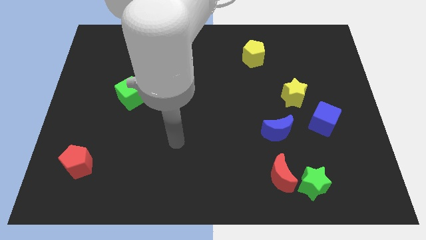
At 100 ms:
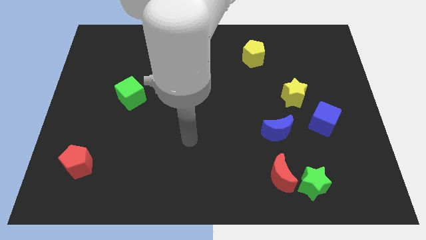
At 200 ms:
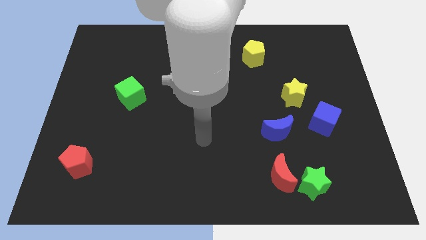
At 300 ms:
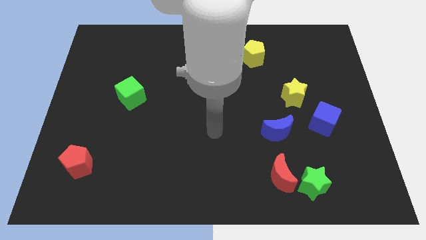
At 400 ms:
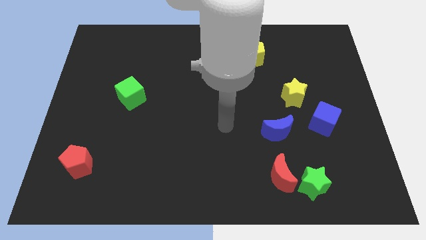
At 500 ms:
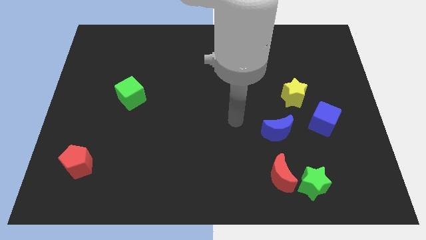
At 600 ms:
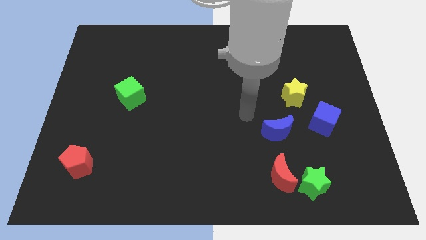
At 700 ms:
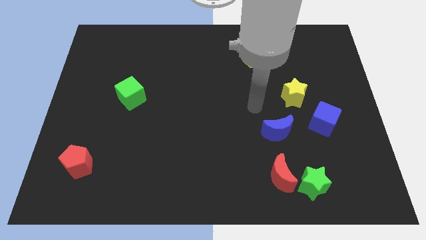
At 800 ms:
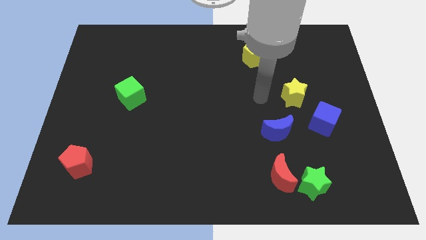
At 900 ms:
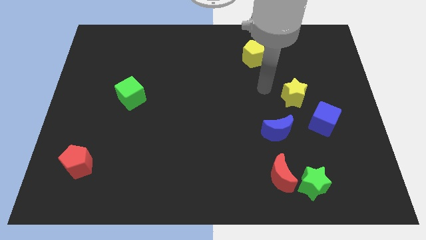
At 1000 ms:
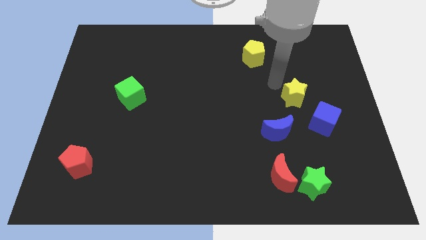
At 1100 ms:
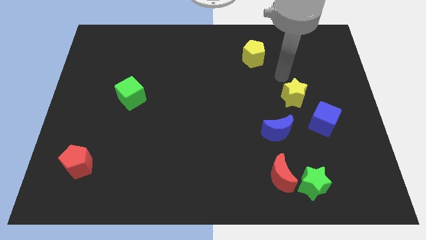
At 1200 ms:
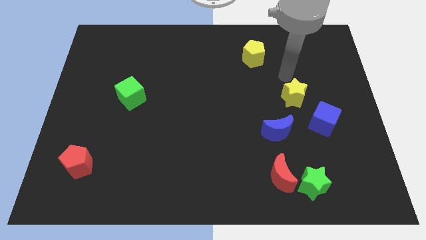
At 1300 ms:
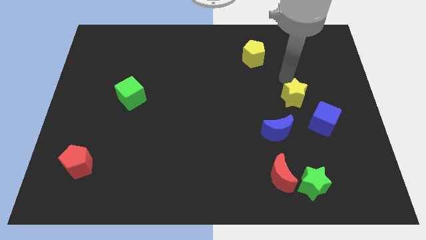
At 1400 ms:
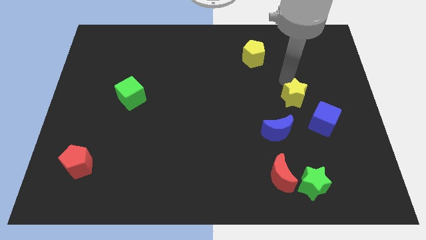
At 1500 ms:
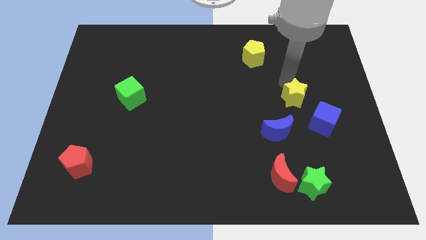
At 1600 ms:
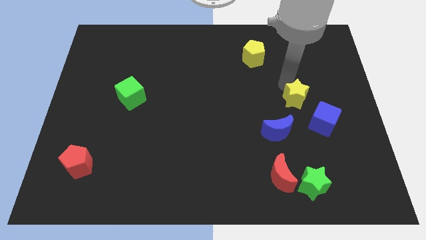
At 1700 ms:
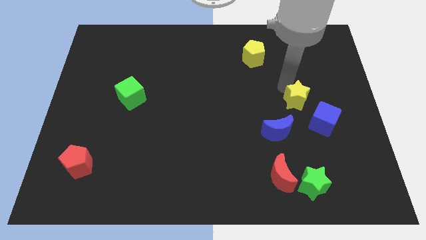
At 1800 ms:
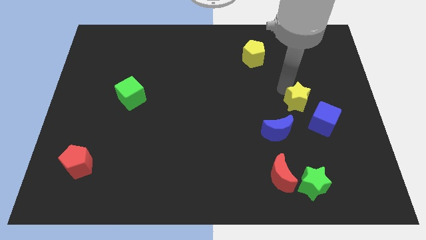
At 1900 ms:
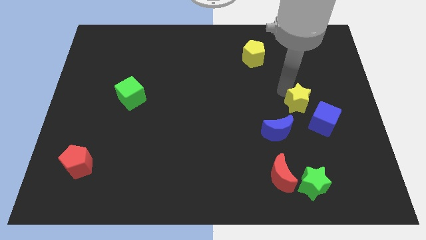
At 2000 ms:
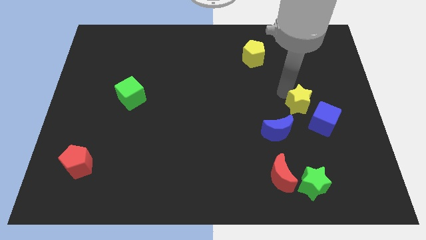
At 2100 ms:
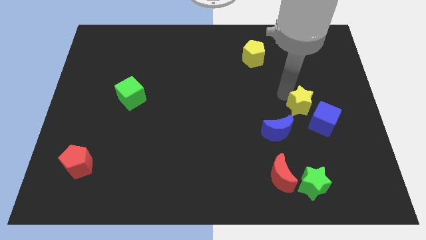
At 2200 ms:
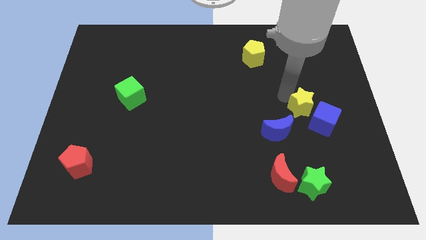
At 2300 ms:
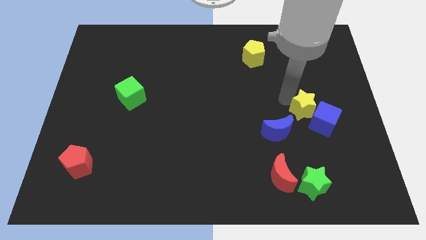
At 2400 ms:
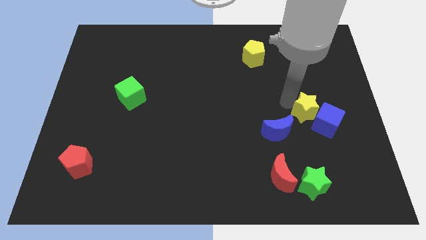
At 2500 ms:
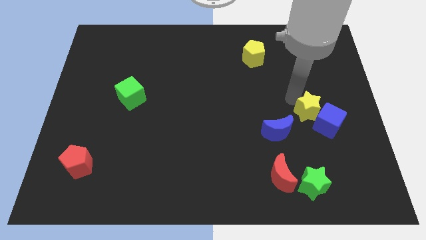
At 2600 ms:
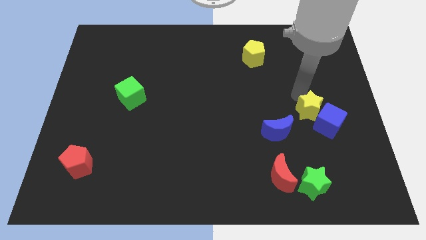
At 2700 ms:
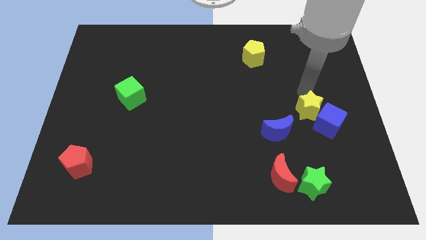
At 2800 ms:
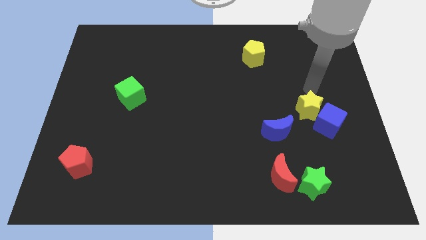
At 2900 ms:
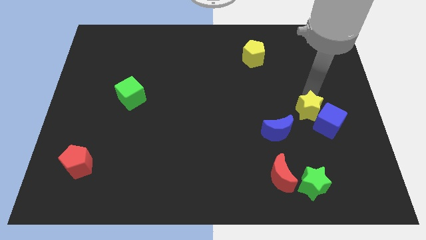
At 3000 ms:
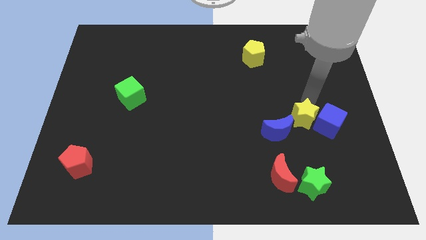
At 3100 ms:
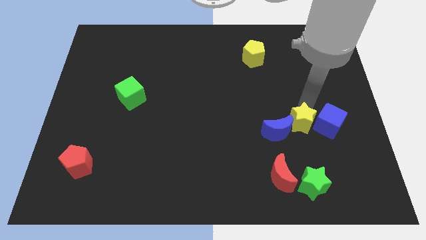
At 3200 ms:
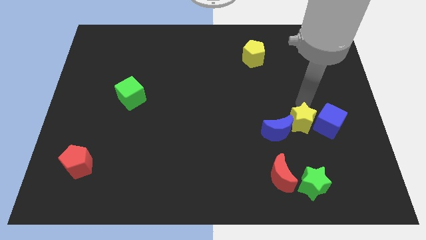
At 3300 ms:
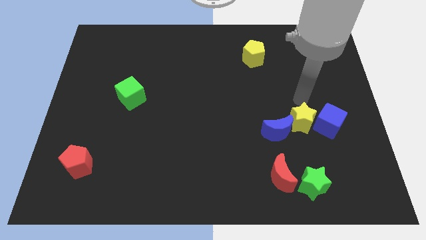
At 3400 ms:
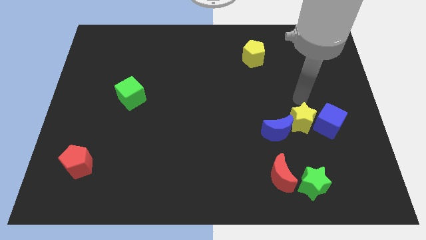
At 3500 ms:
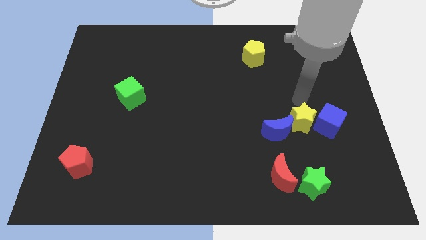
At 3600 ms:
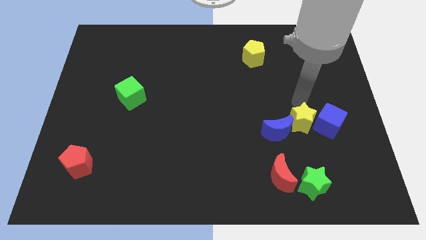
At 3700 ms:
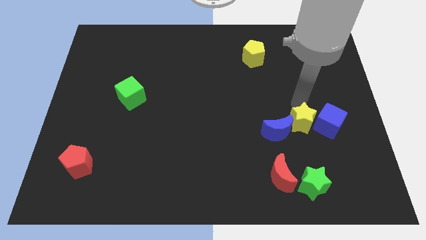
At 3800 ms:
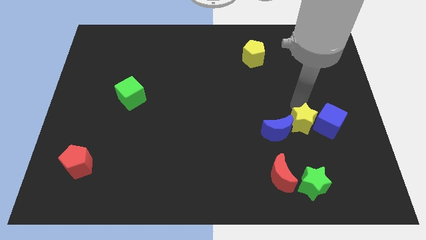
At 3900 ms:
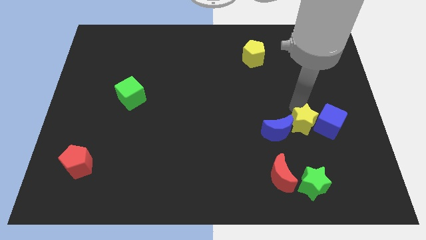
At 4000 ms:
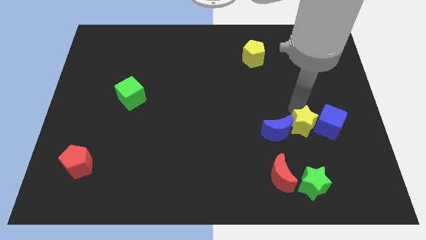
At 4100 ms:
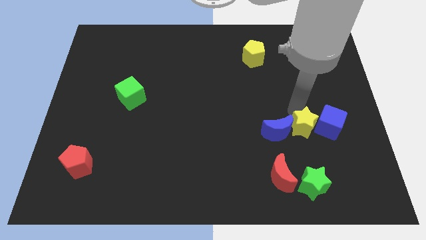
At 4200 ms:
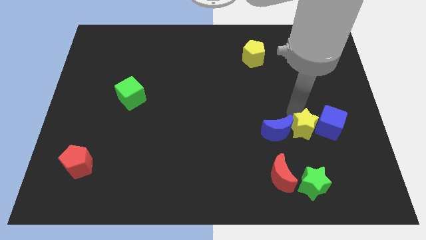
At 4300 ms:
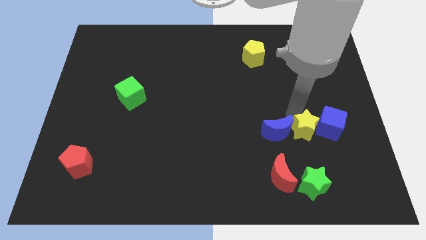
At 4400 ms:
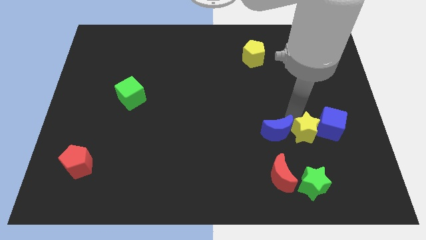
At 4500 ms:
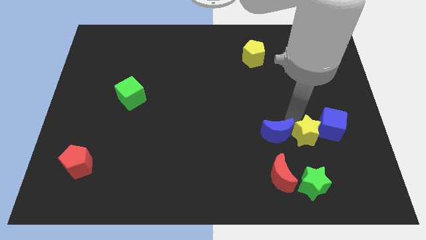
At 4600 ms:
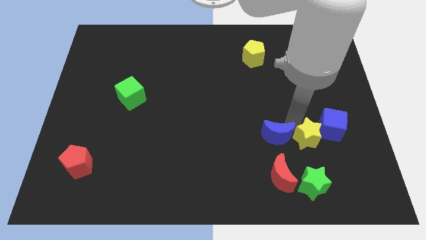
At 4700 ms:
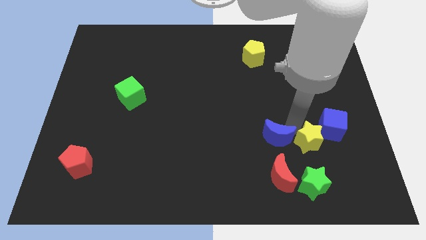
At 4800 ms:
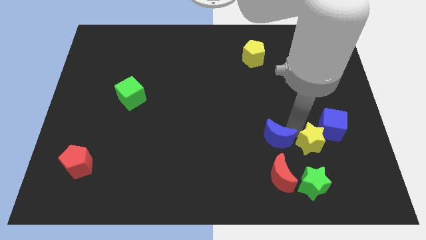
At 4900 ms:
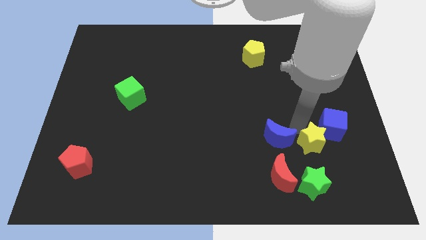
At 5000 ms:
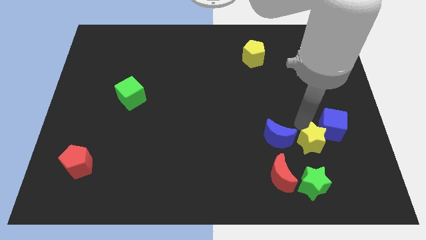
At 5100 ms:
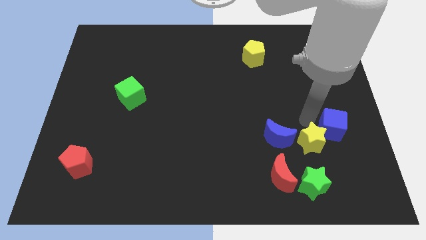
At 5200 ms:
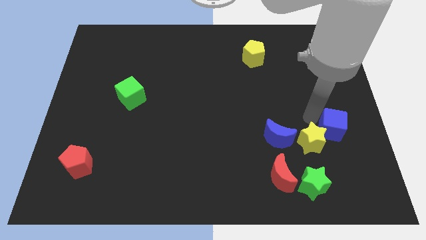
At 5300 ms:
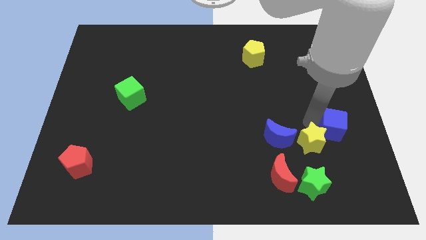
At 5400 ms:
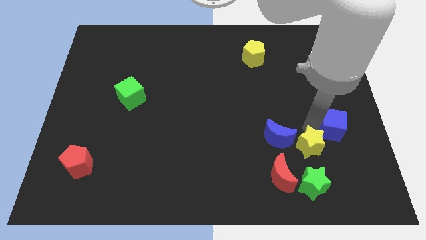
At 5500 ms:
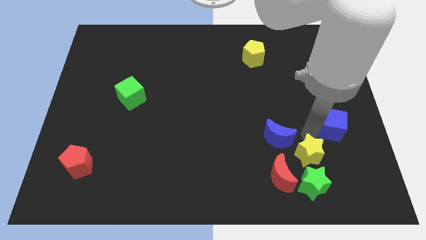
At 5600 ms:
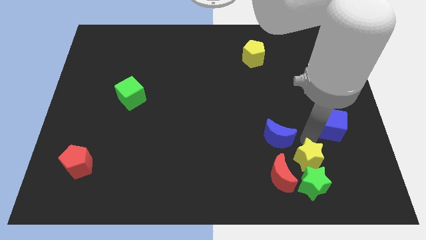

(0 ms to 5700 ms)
push the yellow star next to the green star

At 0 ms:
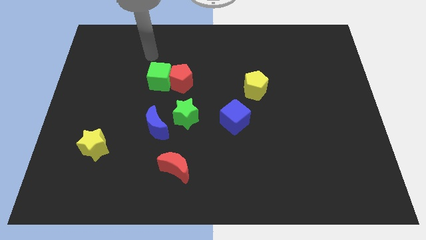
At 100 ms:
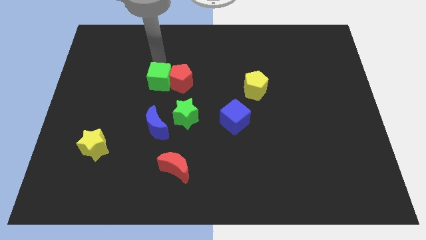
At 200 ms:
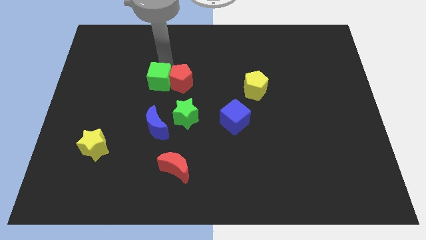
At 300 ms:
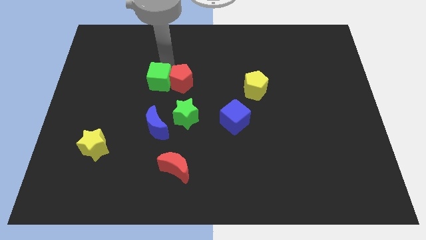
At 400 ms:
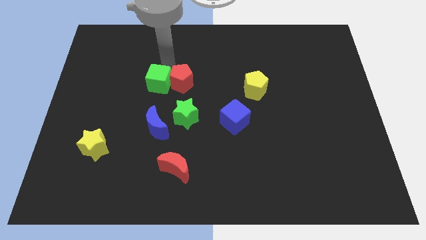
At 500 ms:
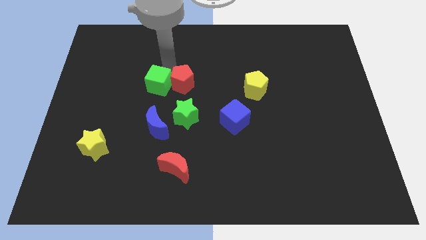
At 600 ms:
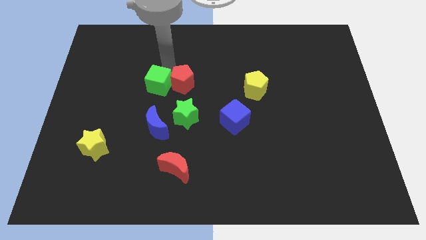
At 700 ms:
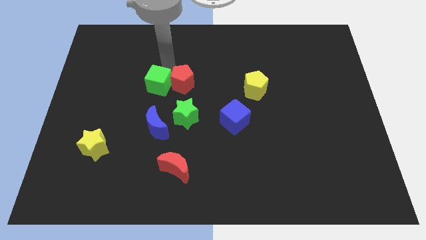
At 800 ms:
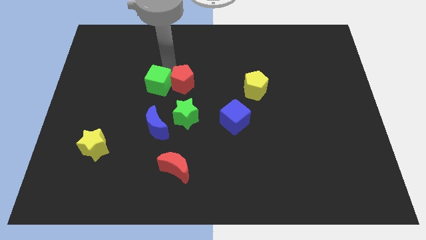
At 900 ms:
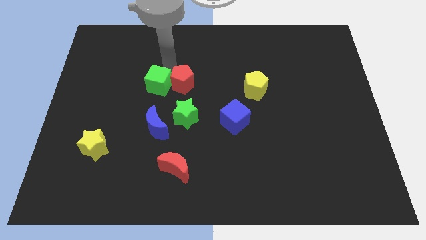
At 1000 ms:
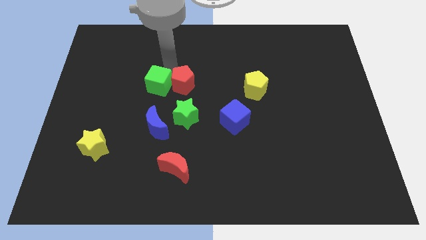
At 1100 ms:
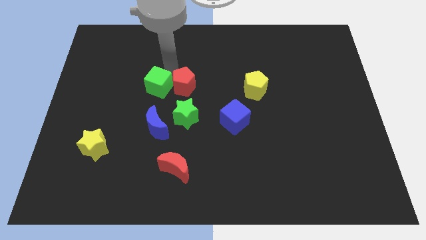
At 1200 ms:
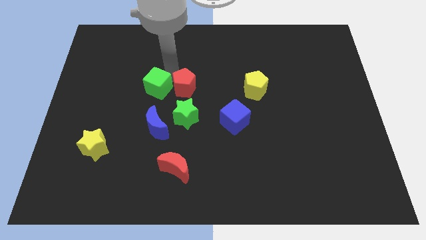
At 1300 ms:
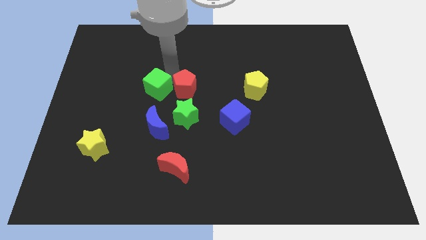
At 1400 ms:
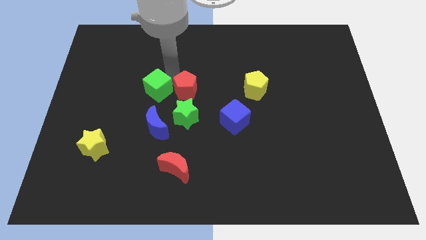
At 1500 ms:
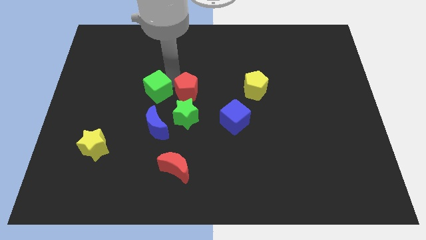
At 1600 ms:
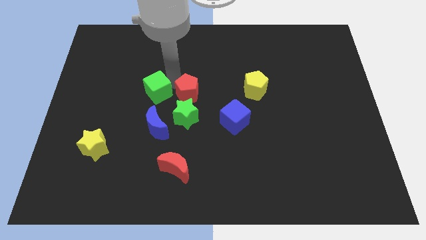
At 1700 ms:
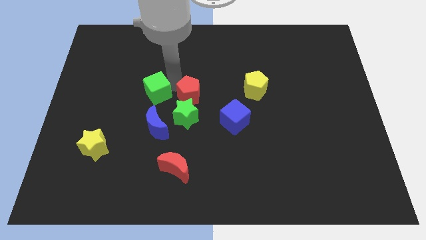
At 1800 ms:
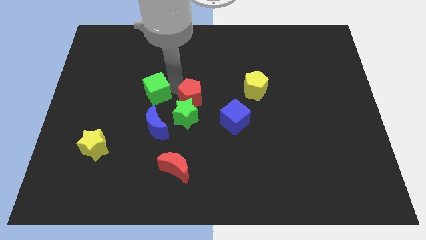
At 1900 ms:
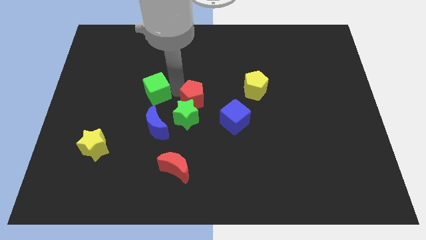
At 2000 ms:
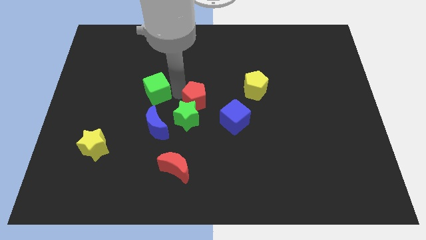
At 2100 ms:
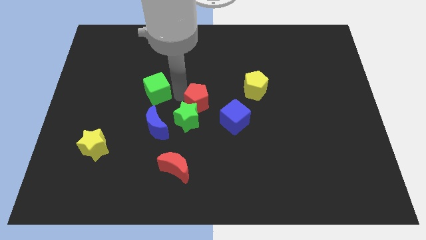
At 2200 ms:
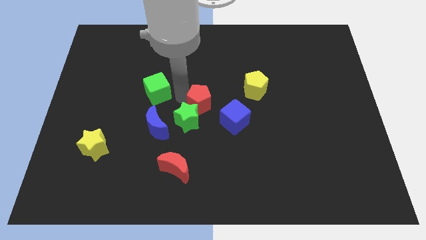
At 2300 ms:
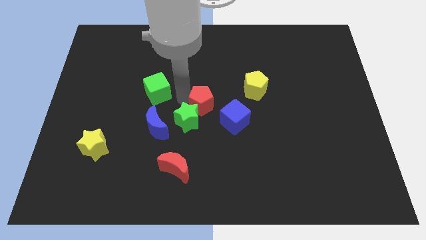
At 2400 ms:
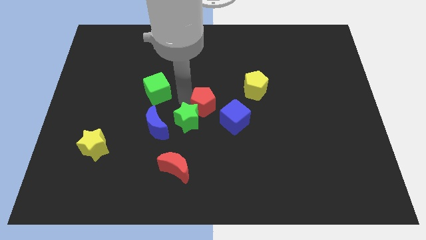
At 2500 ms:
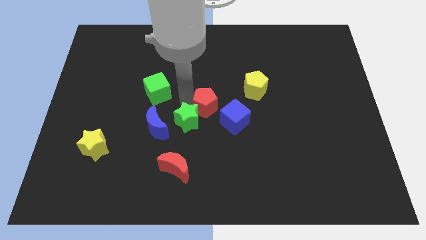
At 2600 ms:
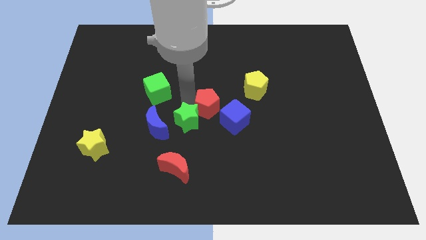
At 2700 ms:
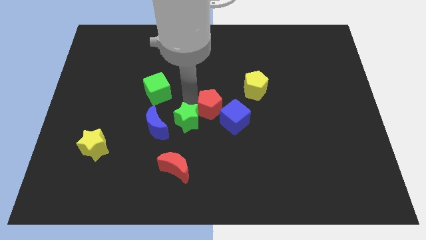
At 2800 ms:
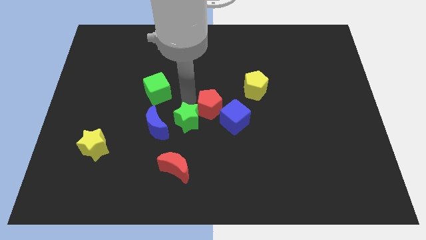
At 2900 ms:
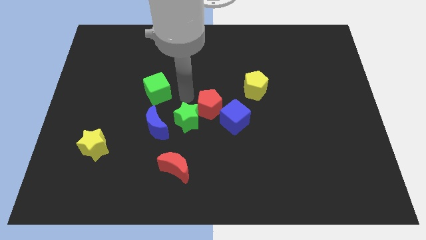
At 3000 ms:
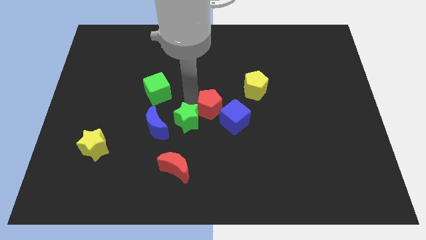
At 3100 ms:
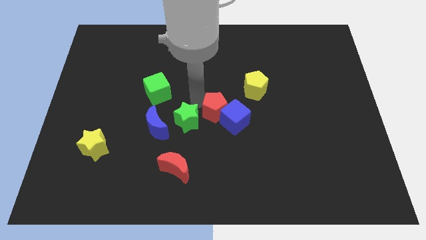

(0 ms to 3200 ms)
put the red pentagon close to the blue cube
